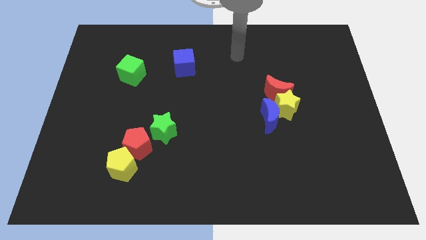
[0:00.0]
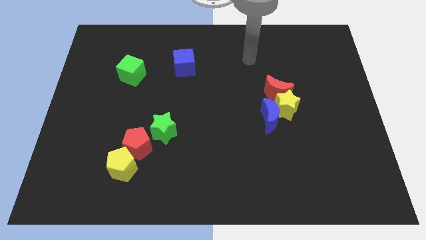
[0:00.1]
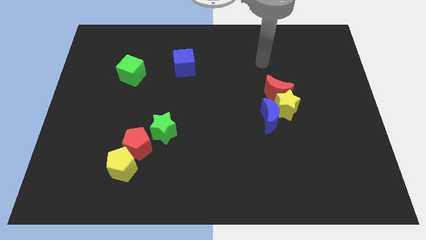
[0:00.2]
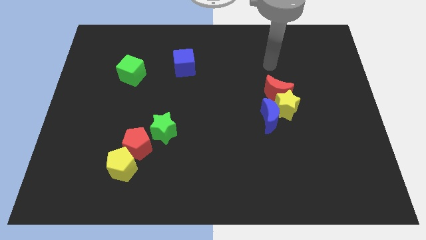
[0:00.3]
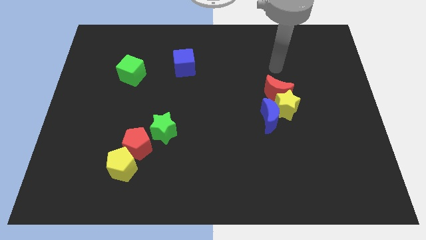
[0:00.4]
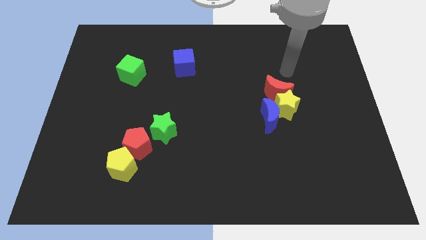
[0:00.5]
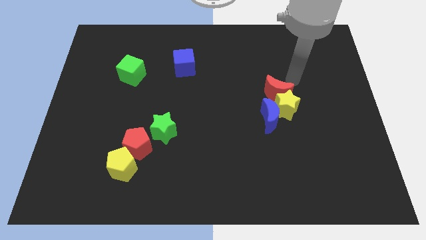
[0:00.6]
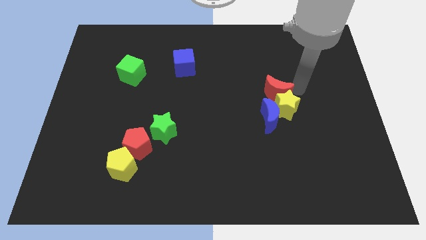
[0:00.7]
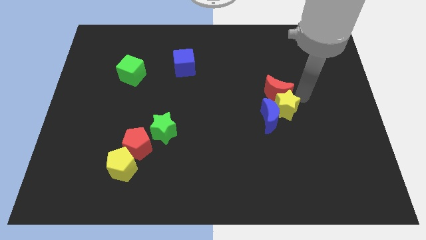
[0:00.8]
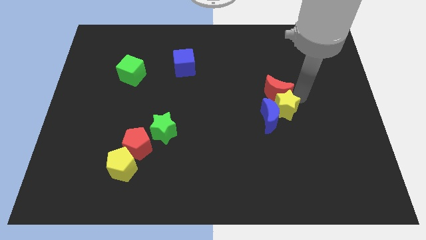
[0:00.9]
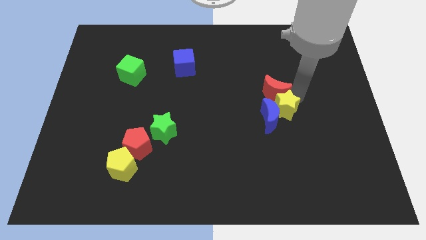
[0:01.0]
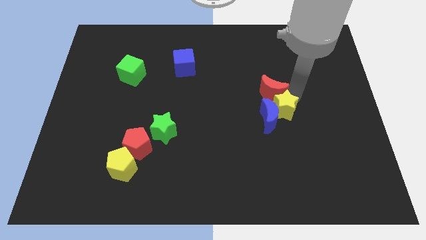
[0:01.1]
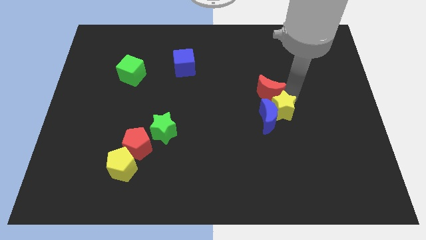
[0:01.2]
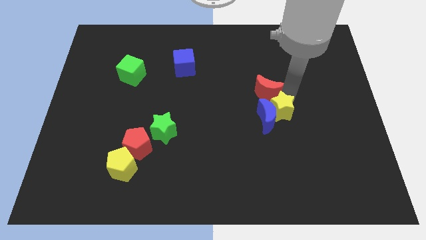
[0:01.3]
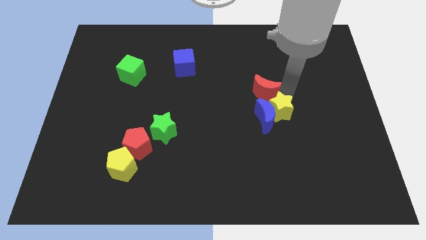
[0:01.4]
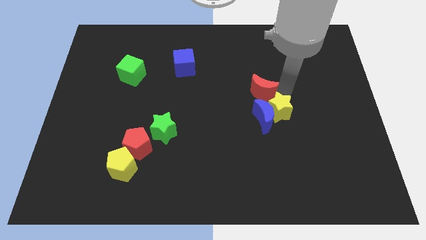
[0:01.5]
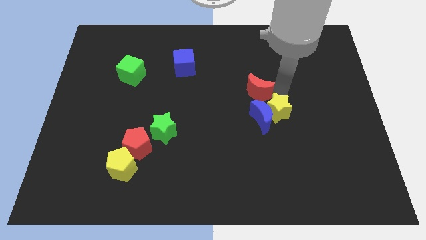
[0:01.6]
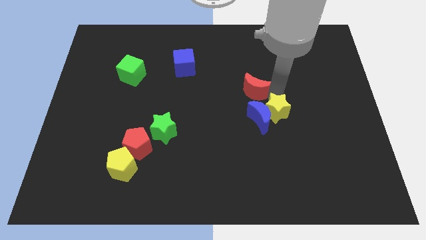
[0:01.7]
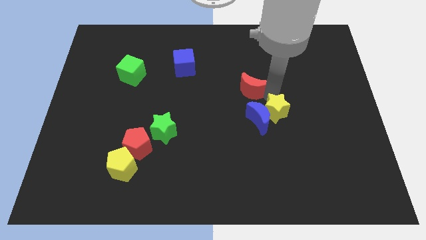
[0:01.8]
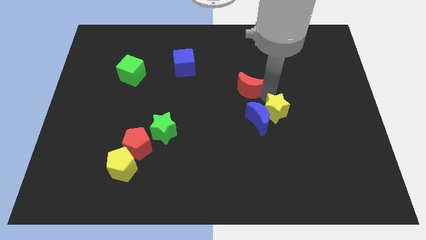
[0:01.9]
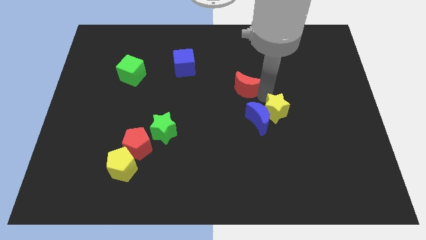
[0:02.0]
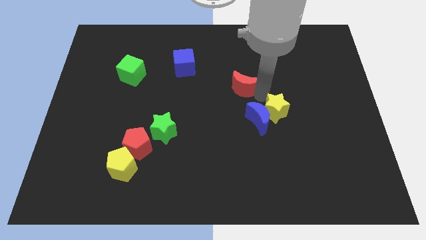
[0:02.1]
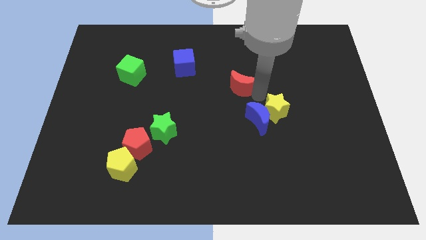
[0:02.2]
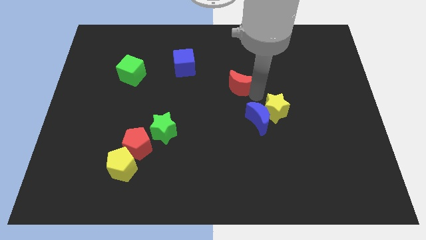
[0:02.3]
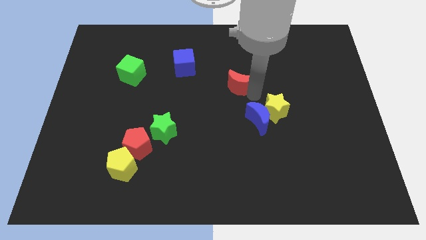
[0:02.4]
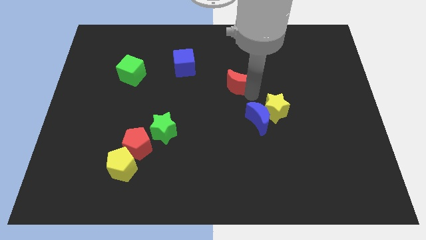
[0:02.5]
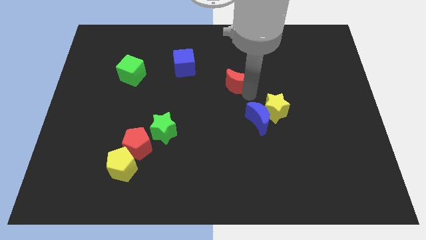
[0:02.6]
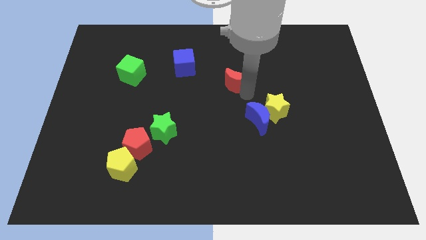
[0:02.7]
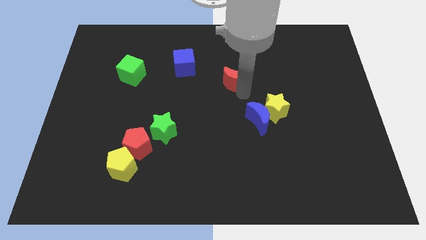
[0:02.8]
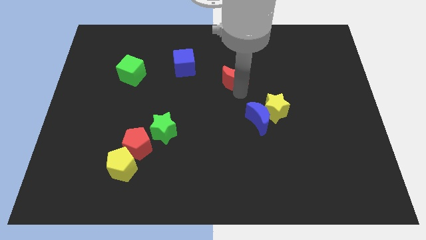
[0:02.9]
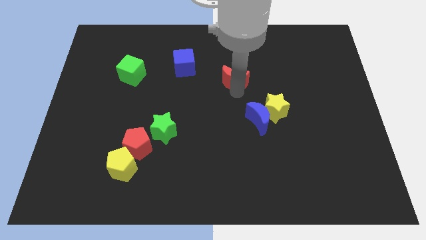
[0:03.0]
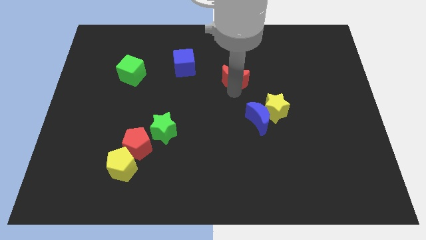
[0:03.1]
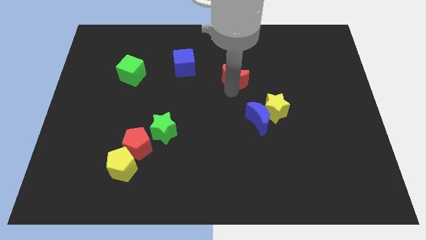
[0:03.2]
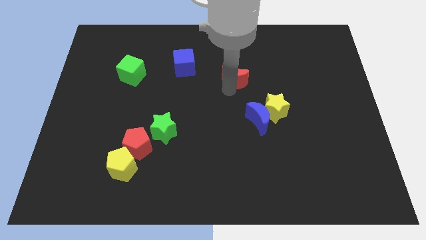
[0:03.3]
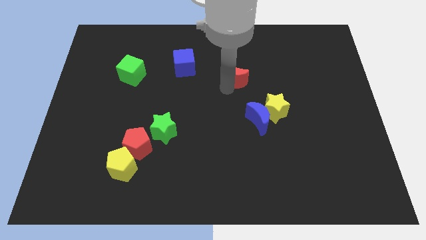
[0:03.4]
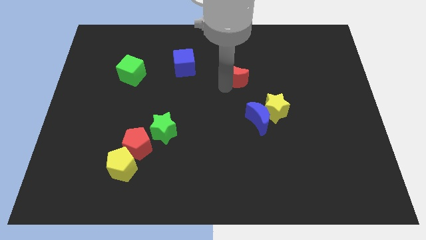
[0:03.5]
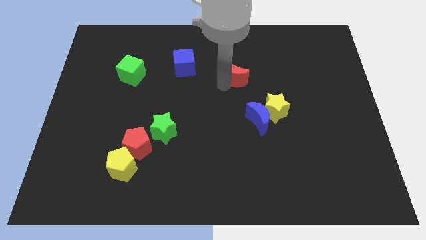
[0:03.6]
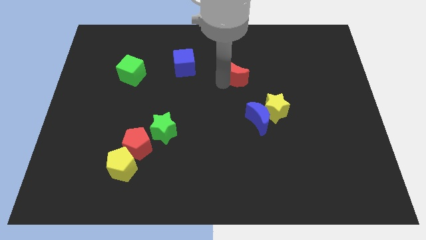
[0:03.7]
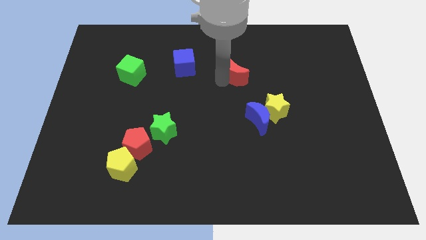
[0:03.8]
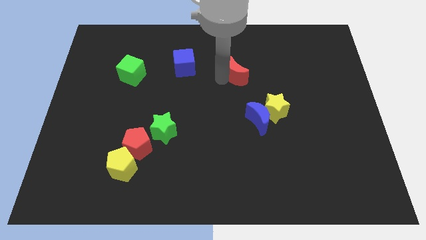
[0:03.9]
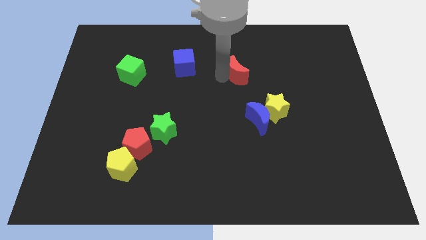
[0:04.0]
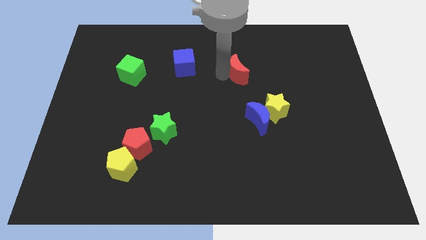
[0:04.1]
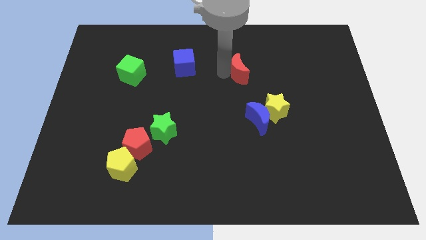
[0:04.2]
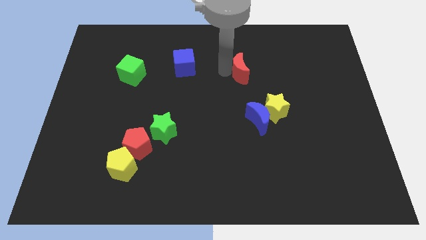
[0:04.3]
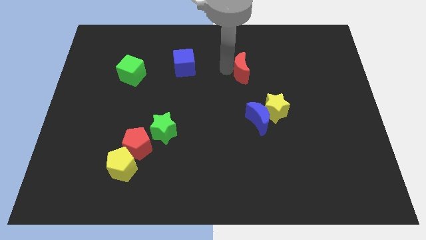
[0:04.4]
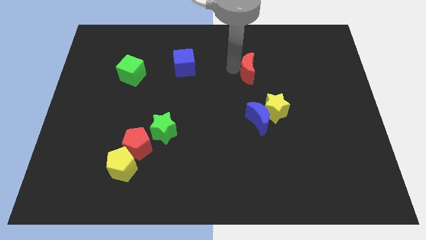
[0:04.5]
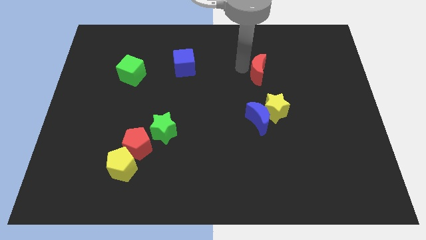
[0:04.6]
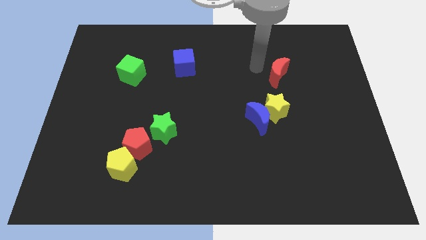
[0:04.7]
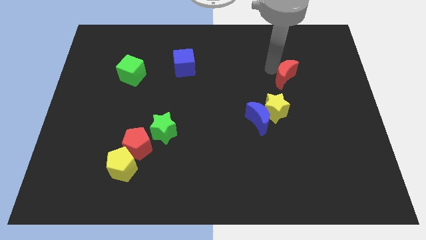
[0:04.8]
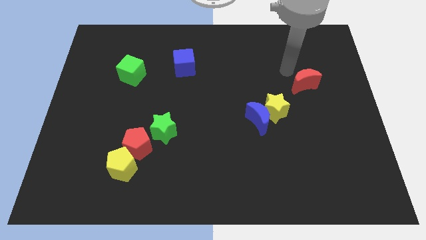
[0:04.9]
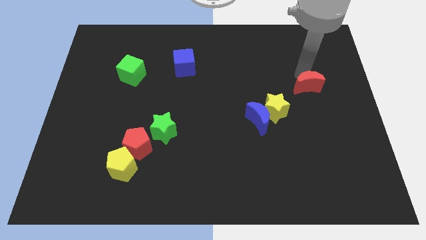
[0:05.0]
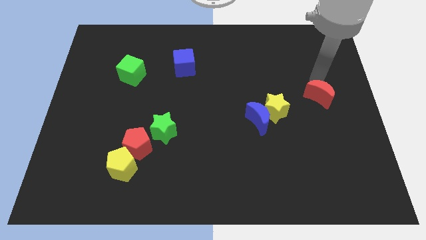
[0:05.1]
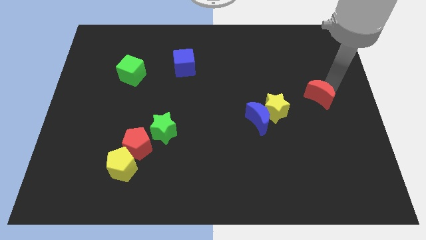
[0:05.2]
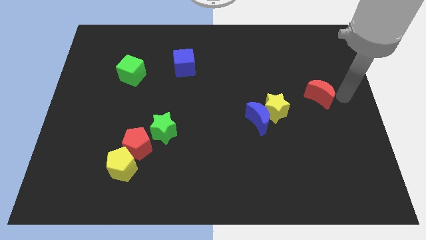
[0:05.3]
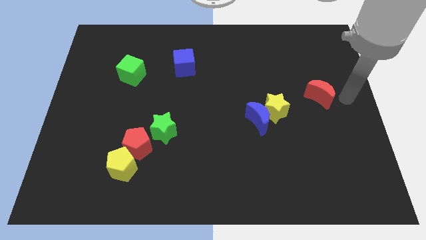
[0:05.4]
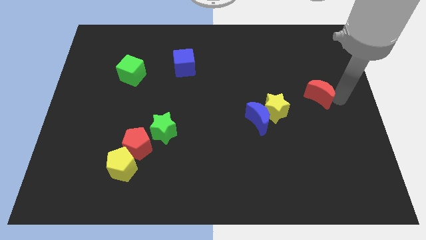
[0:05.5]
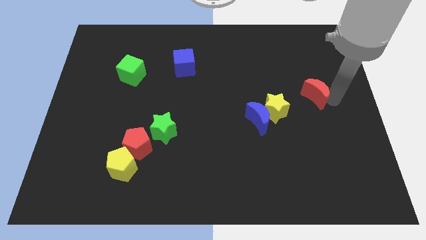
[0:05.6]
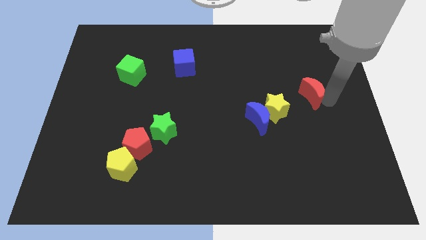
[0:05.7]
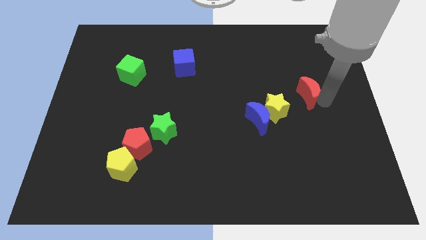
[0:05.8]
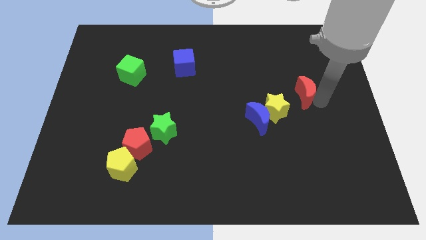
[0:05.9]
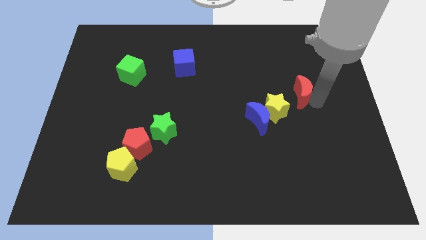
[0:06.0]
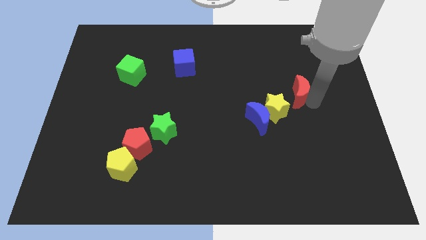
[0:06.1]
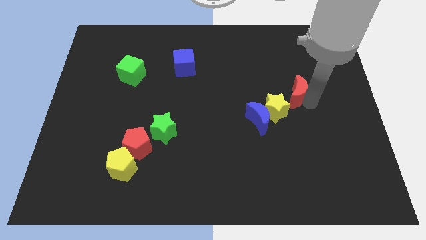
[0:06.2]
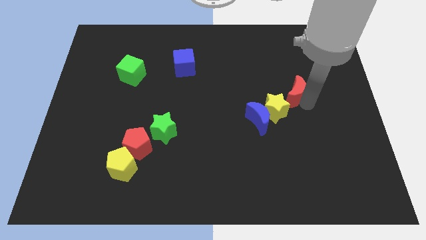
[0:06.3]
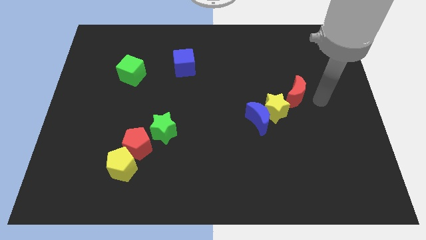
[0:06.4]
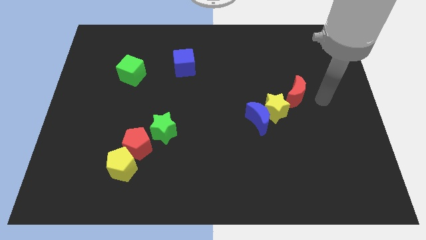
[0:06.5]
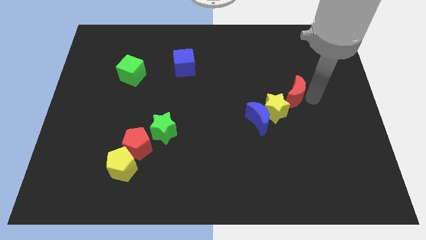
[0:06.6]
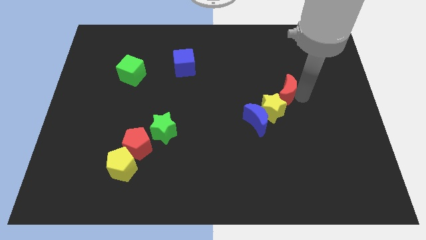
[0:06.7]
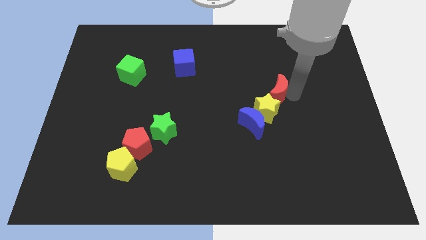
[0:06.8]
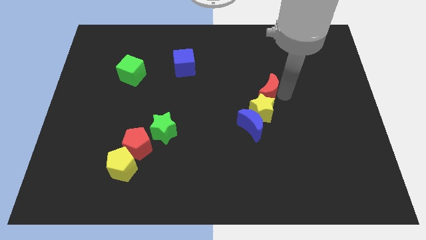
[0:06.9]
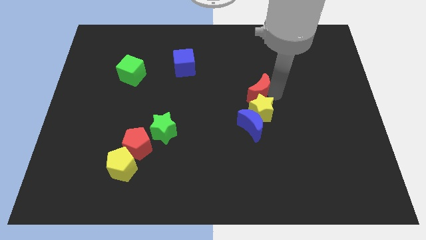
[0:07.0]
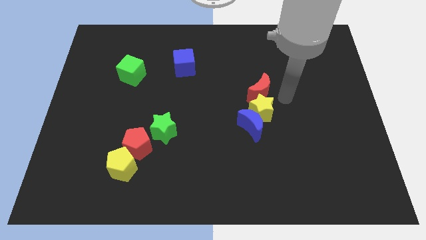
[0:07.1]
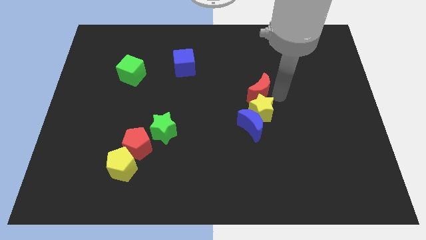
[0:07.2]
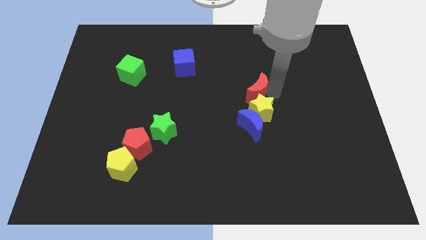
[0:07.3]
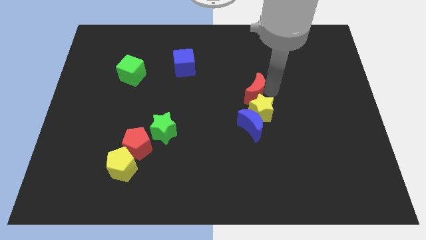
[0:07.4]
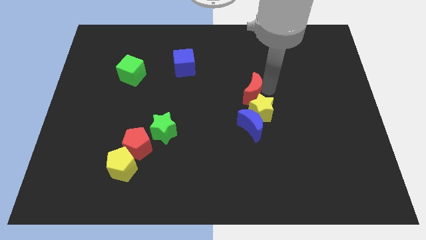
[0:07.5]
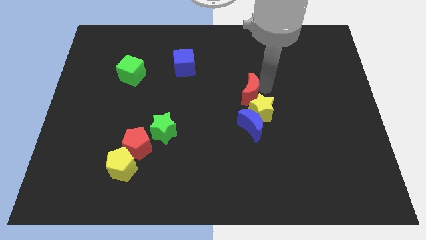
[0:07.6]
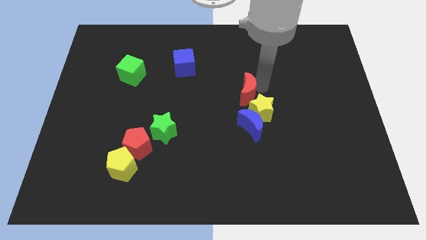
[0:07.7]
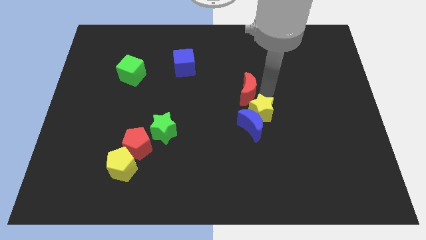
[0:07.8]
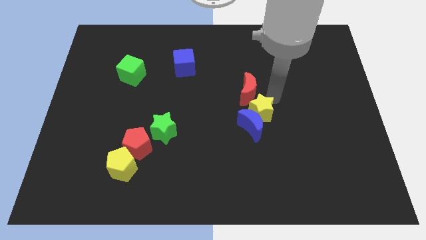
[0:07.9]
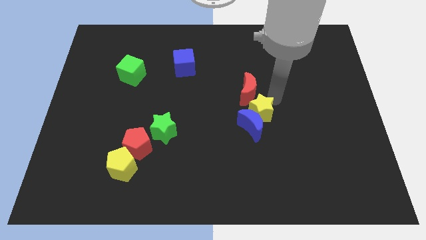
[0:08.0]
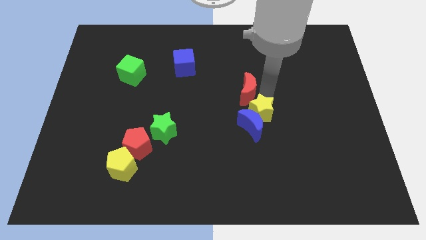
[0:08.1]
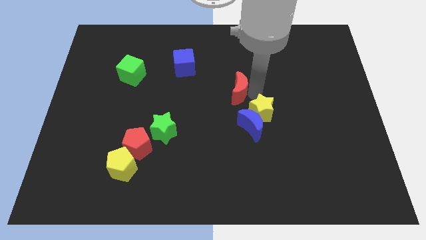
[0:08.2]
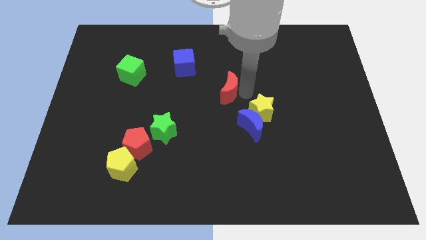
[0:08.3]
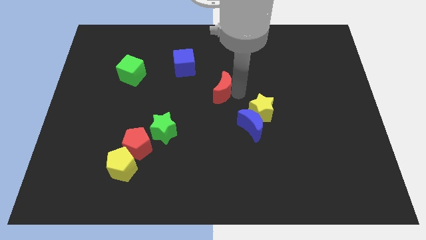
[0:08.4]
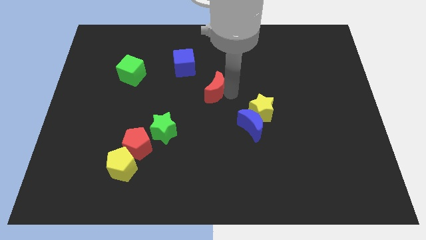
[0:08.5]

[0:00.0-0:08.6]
put the red moon to the bottom right side of the blue cube
